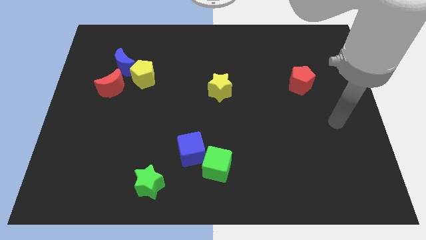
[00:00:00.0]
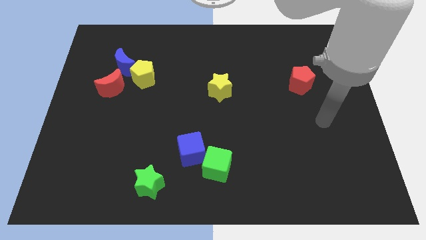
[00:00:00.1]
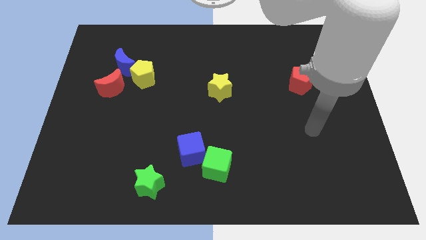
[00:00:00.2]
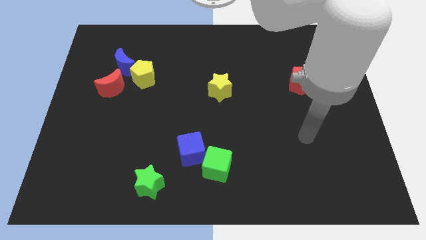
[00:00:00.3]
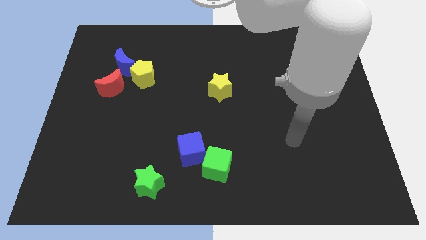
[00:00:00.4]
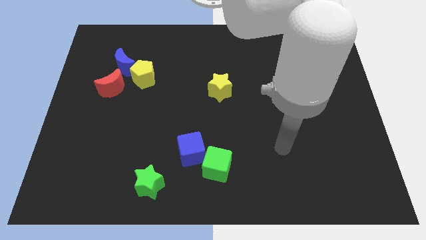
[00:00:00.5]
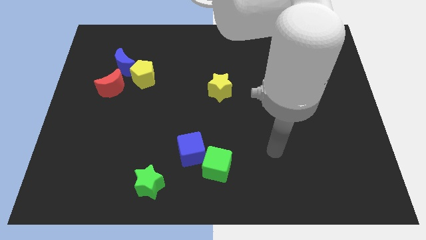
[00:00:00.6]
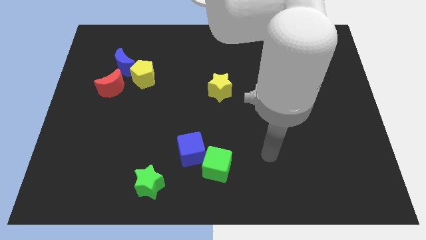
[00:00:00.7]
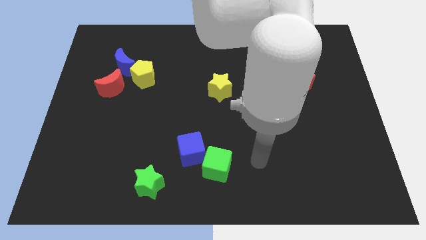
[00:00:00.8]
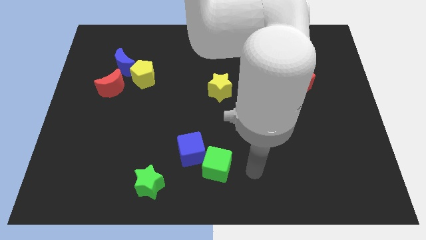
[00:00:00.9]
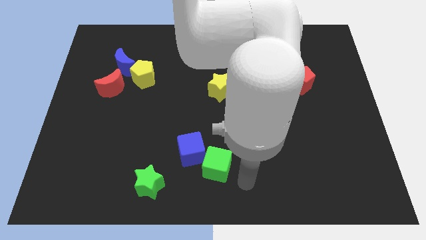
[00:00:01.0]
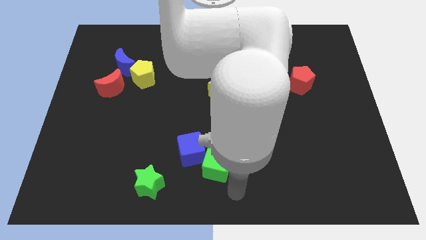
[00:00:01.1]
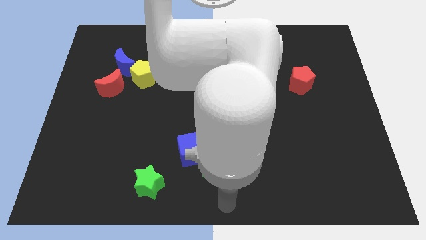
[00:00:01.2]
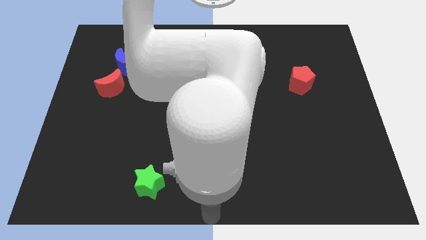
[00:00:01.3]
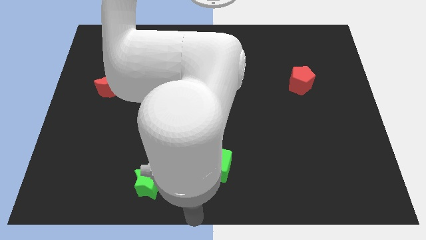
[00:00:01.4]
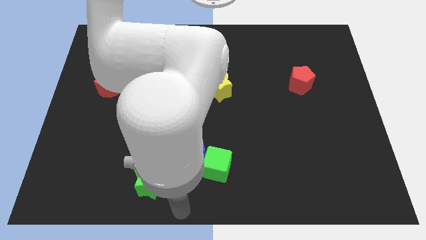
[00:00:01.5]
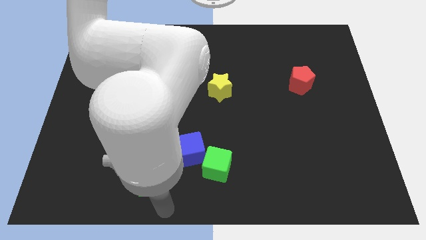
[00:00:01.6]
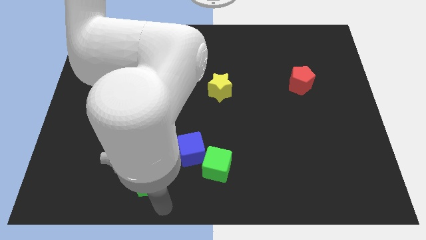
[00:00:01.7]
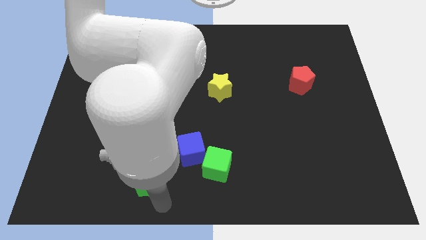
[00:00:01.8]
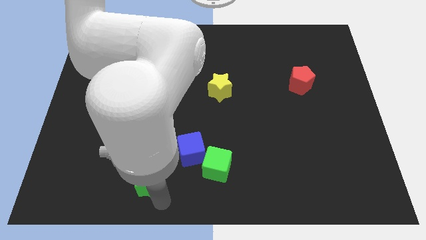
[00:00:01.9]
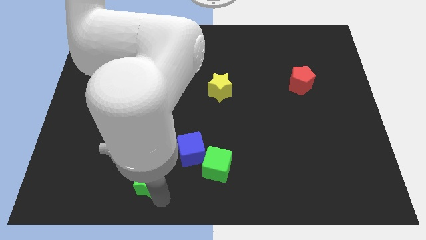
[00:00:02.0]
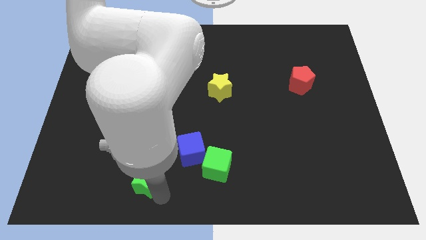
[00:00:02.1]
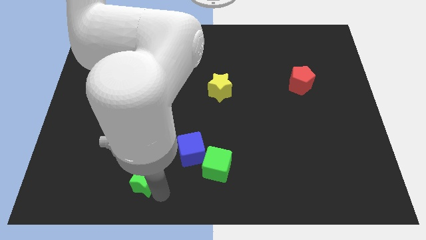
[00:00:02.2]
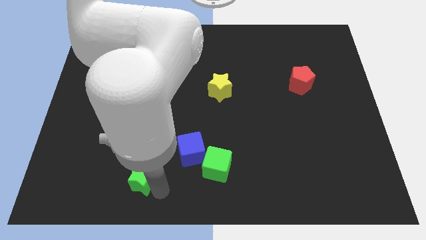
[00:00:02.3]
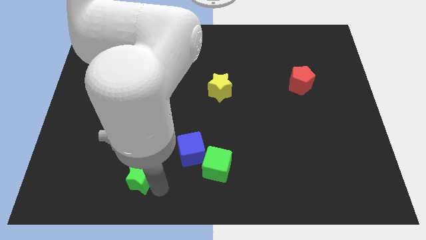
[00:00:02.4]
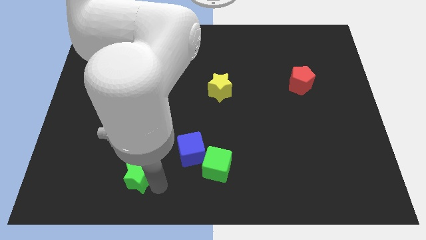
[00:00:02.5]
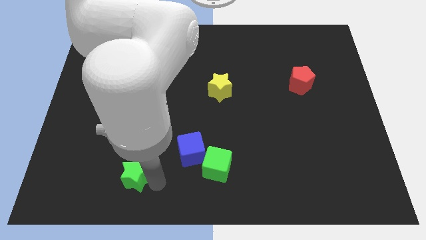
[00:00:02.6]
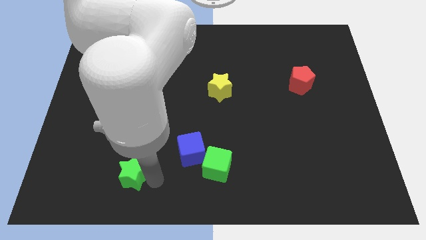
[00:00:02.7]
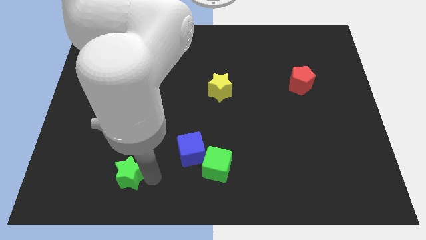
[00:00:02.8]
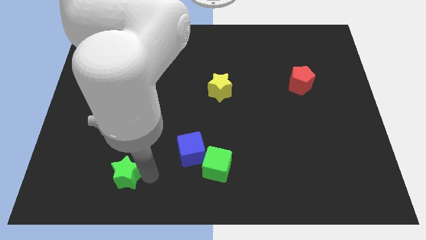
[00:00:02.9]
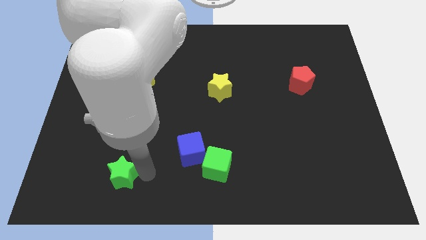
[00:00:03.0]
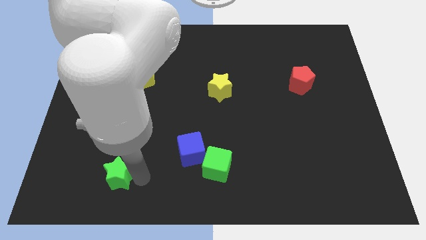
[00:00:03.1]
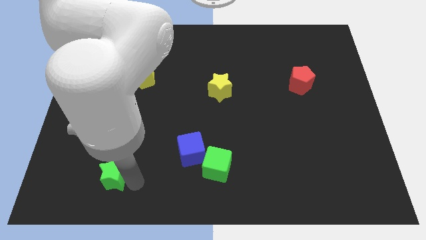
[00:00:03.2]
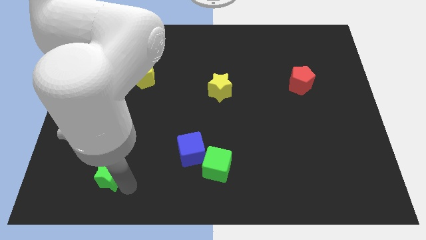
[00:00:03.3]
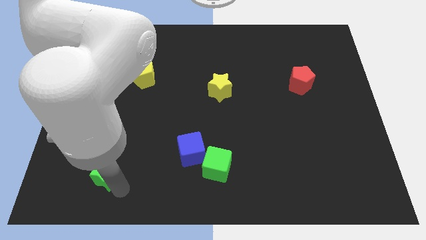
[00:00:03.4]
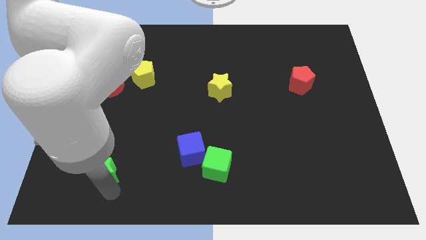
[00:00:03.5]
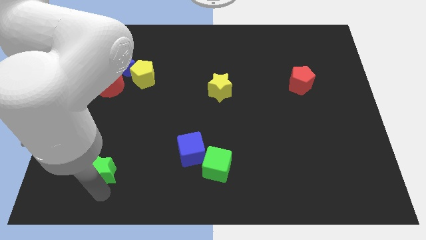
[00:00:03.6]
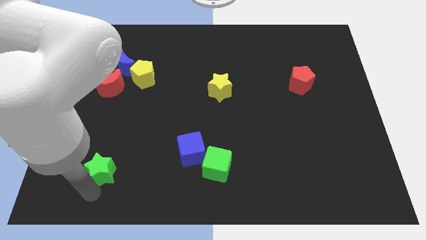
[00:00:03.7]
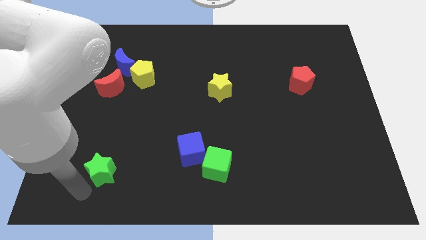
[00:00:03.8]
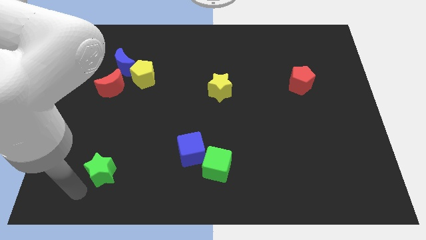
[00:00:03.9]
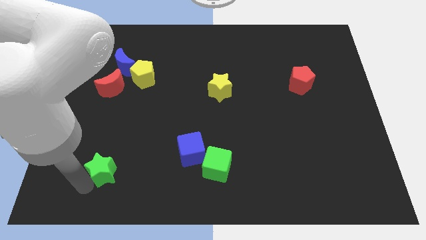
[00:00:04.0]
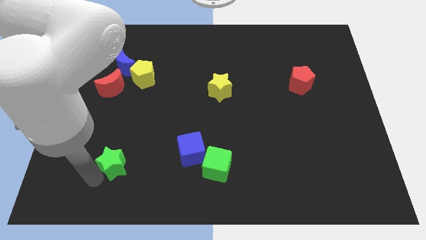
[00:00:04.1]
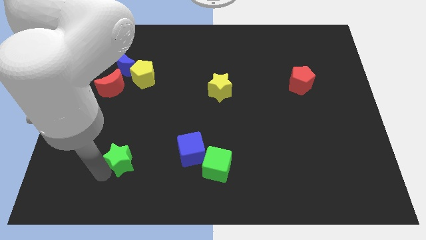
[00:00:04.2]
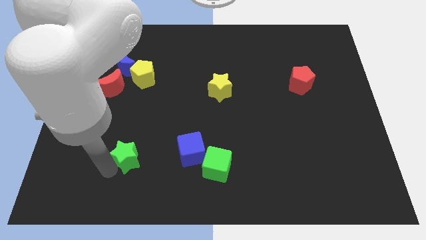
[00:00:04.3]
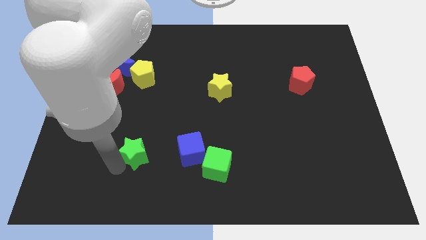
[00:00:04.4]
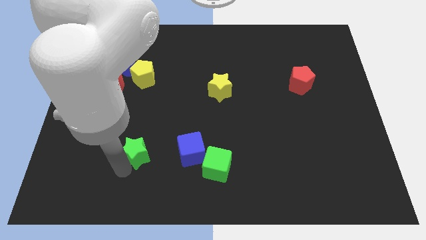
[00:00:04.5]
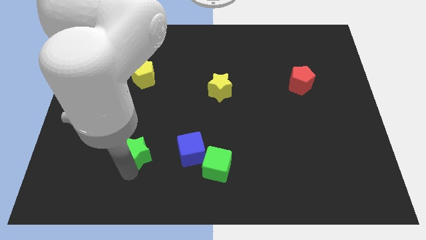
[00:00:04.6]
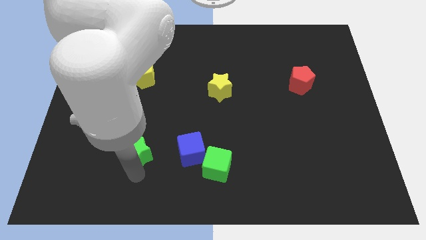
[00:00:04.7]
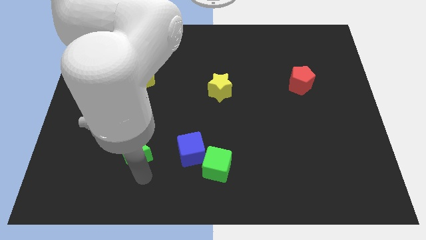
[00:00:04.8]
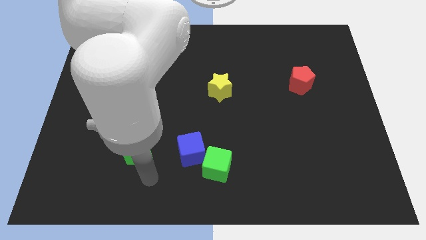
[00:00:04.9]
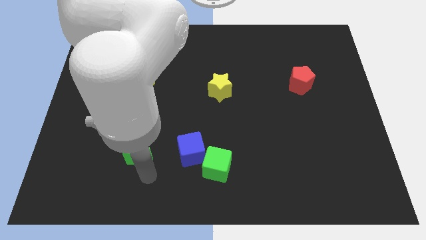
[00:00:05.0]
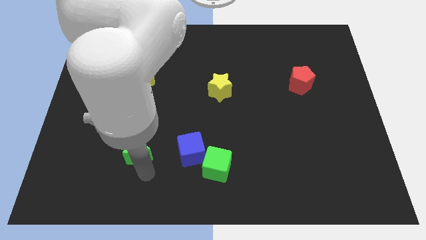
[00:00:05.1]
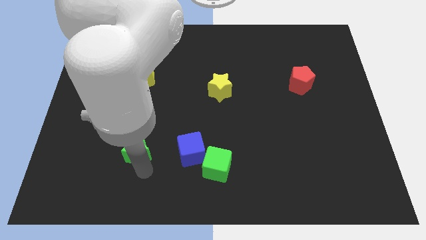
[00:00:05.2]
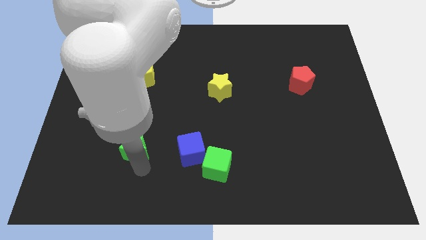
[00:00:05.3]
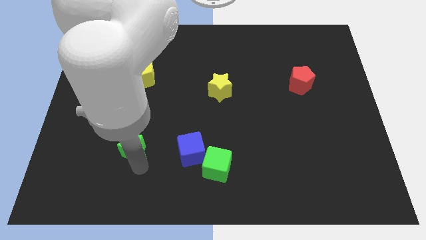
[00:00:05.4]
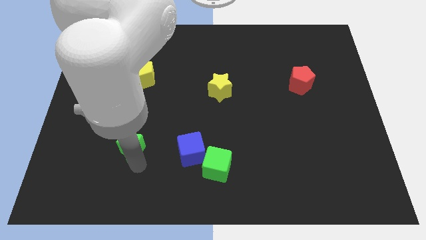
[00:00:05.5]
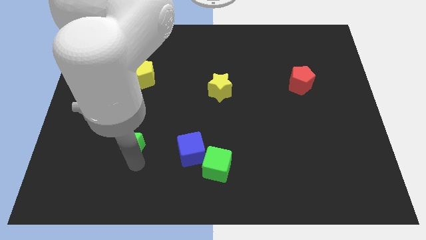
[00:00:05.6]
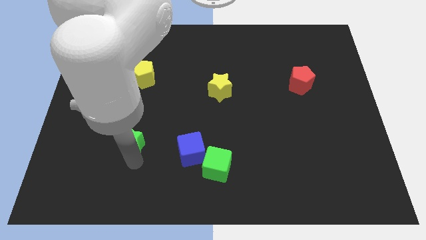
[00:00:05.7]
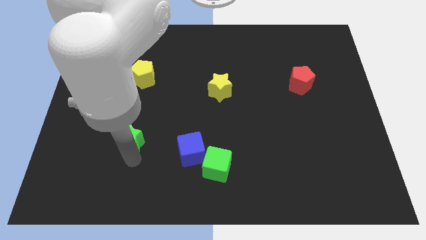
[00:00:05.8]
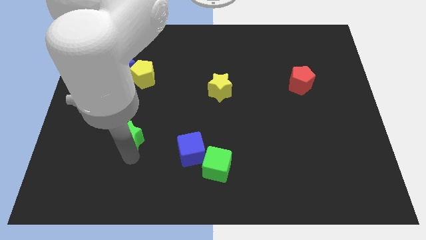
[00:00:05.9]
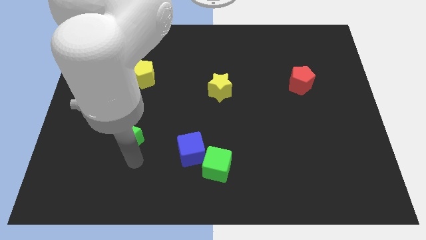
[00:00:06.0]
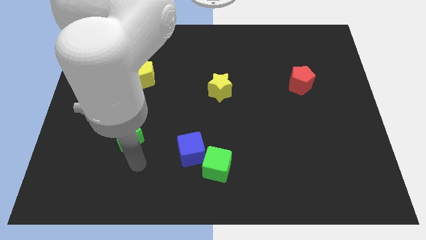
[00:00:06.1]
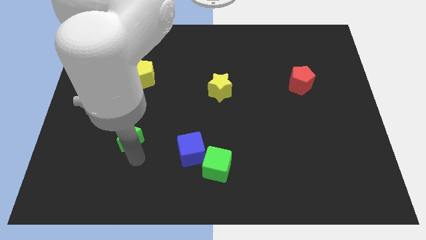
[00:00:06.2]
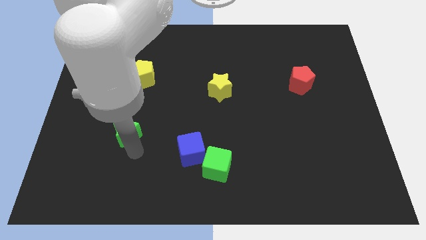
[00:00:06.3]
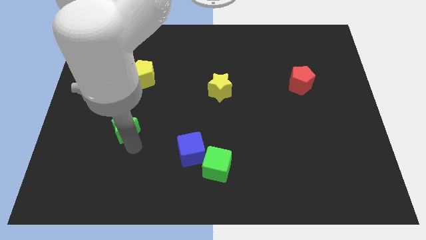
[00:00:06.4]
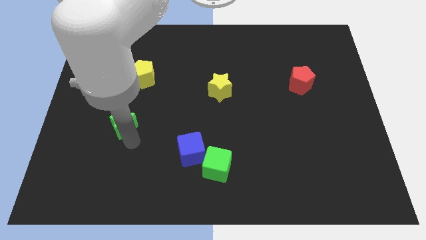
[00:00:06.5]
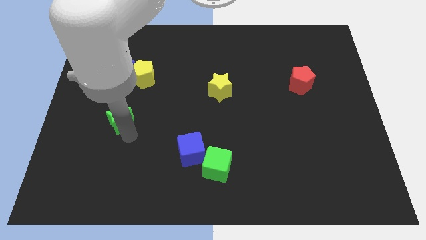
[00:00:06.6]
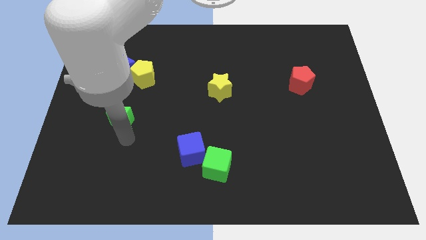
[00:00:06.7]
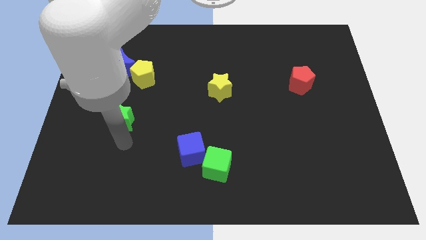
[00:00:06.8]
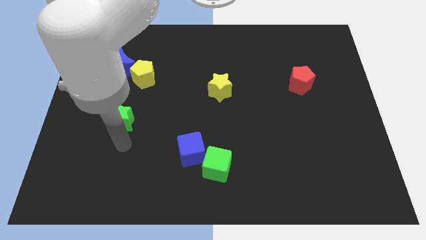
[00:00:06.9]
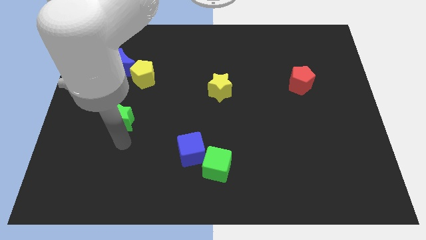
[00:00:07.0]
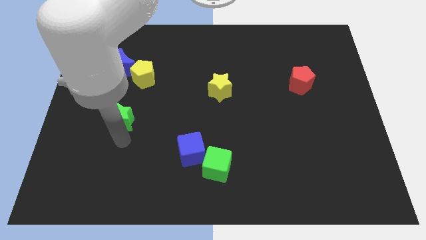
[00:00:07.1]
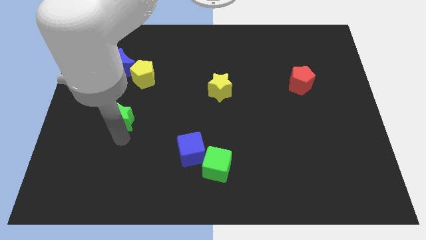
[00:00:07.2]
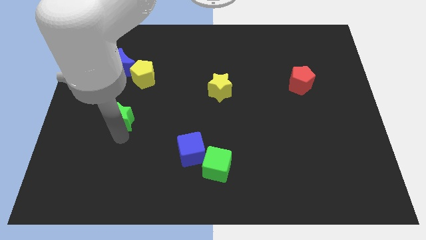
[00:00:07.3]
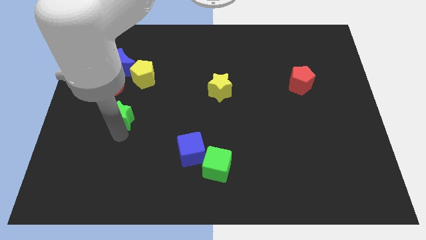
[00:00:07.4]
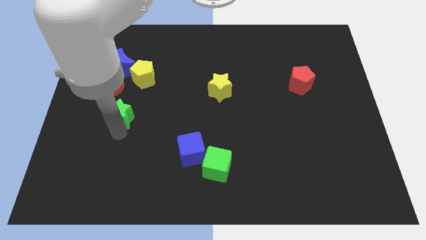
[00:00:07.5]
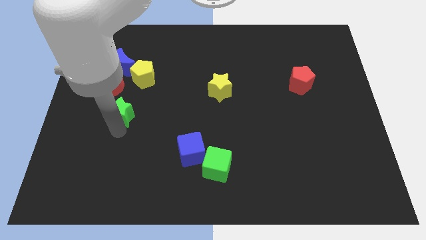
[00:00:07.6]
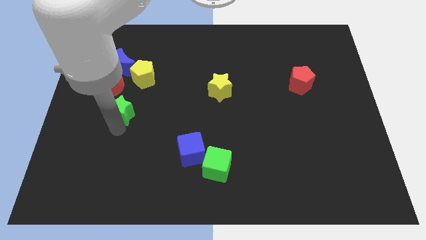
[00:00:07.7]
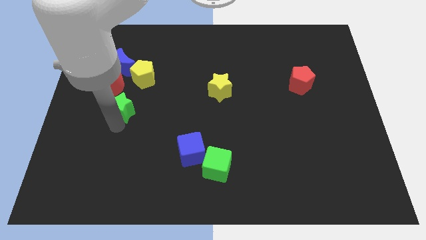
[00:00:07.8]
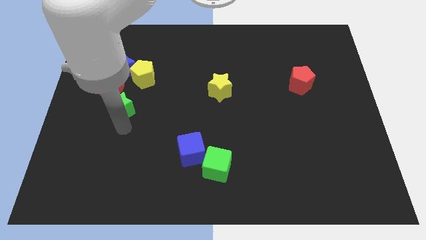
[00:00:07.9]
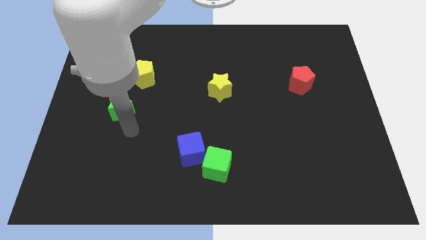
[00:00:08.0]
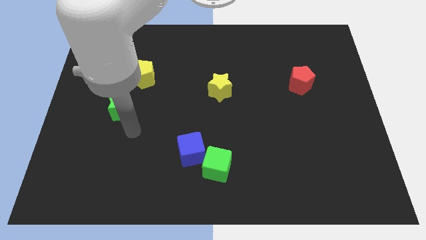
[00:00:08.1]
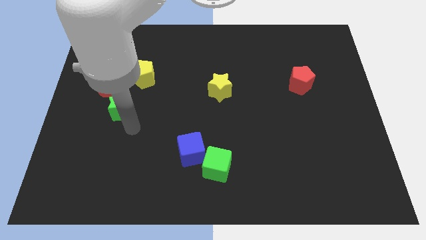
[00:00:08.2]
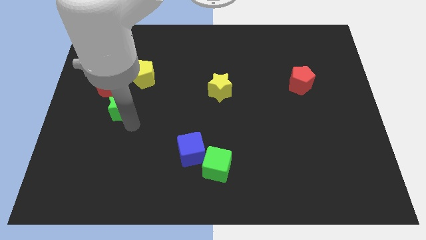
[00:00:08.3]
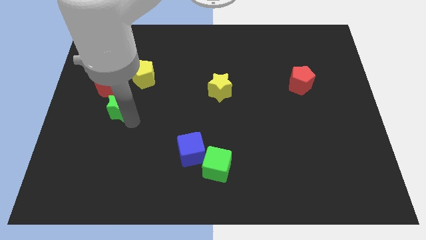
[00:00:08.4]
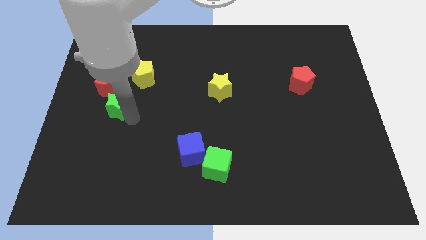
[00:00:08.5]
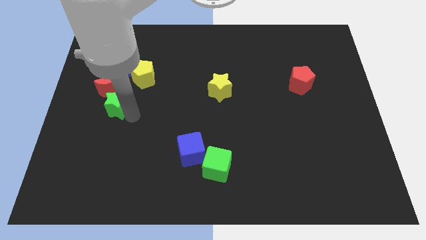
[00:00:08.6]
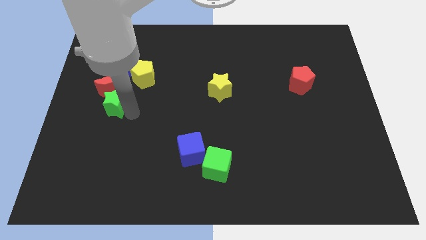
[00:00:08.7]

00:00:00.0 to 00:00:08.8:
slide the green star close to the red moon
